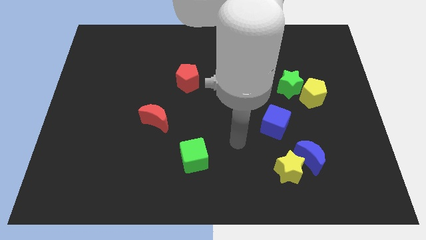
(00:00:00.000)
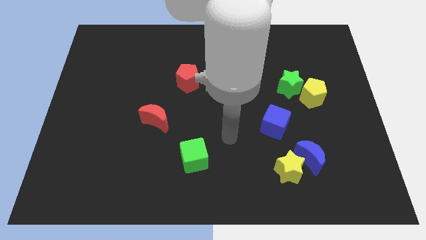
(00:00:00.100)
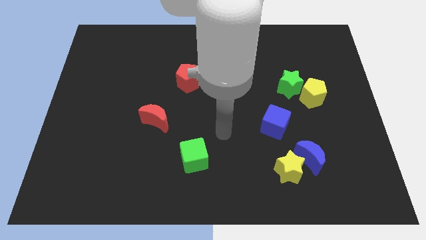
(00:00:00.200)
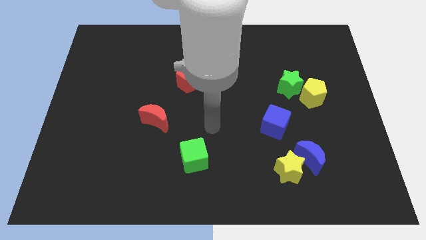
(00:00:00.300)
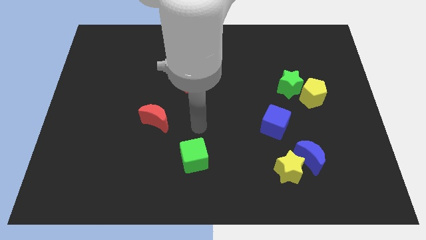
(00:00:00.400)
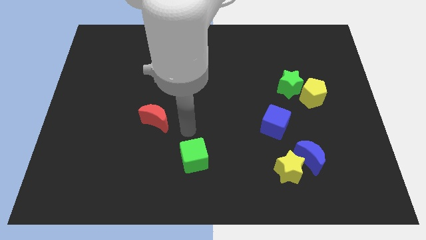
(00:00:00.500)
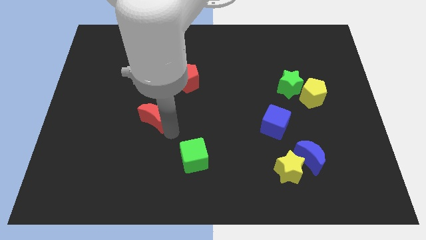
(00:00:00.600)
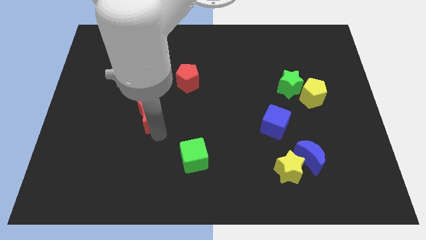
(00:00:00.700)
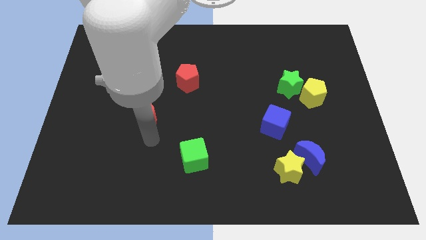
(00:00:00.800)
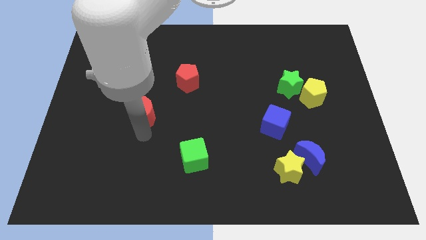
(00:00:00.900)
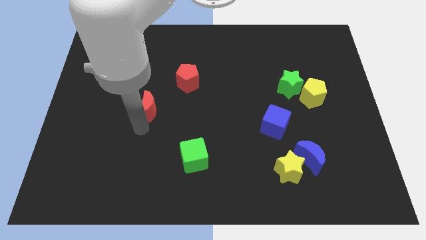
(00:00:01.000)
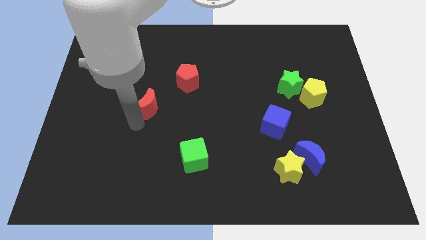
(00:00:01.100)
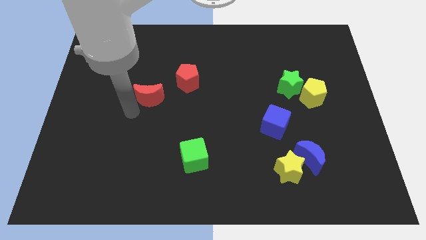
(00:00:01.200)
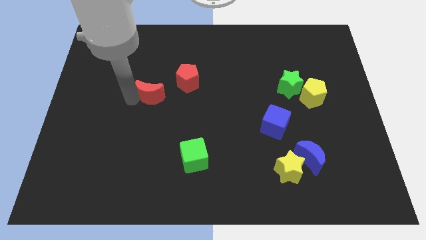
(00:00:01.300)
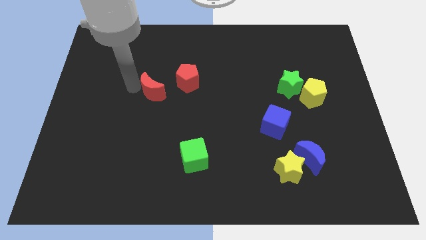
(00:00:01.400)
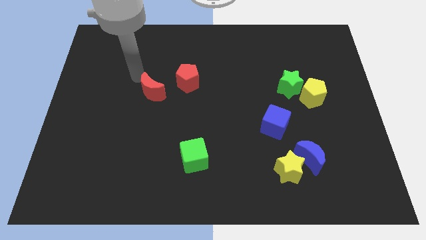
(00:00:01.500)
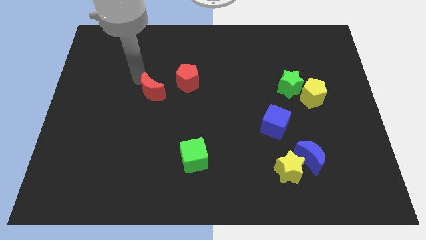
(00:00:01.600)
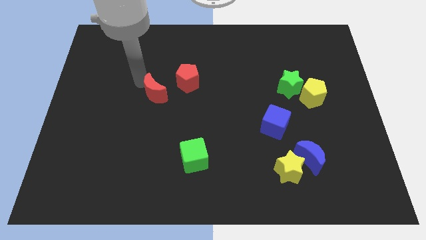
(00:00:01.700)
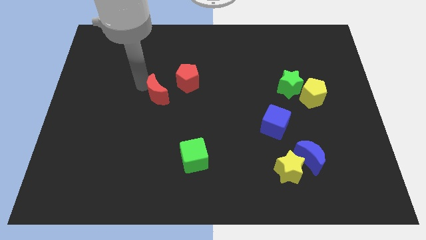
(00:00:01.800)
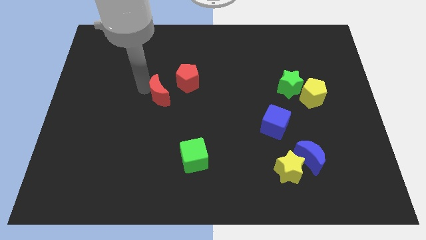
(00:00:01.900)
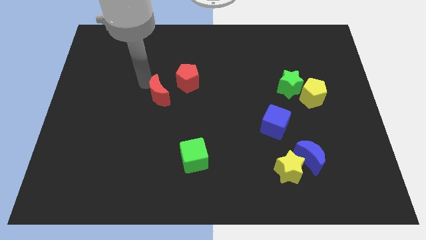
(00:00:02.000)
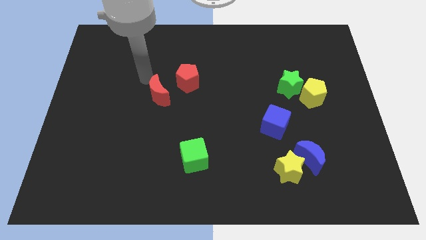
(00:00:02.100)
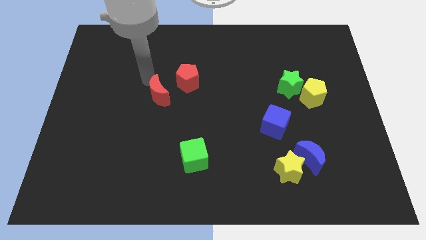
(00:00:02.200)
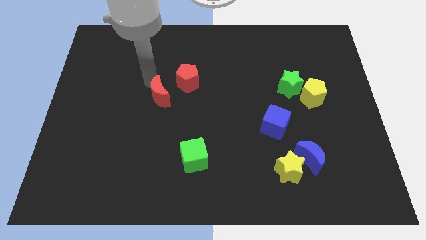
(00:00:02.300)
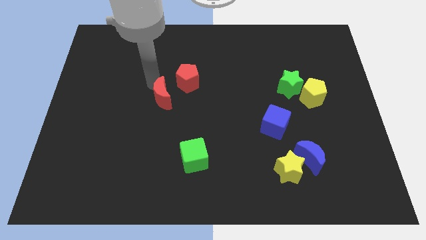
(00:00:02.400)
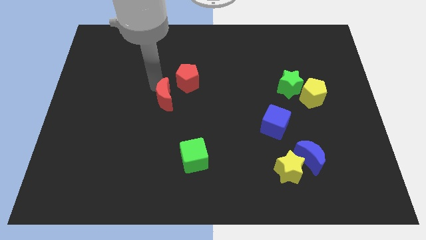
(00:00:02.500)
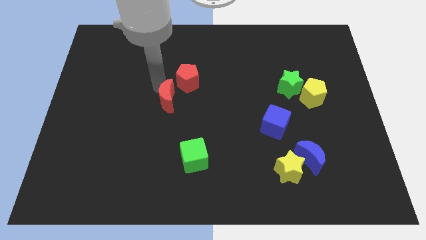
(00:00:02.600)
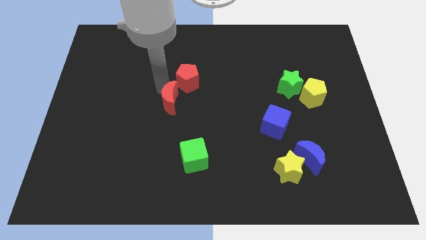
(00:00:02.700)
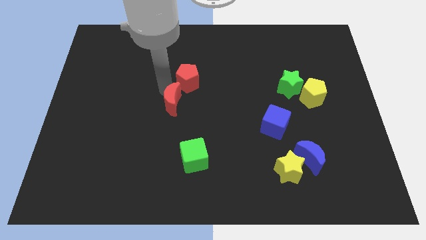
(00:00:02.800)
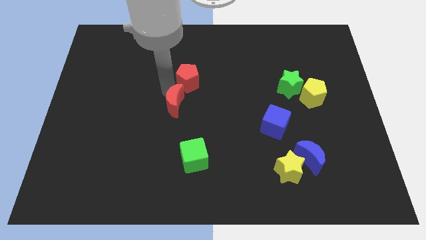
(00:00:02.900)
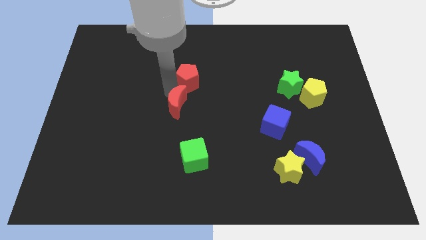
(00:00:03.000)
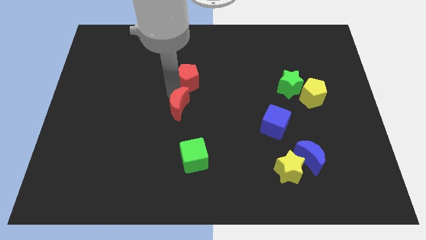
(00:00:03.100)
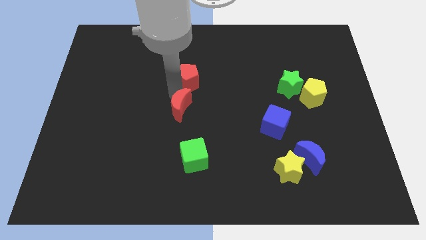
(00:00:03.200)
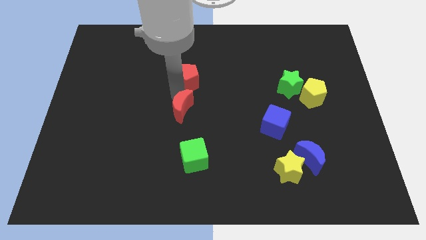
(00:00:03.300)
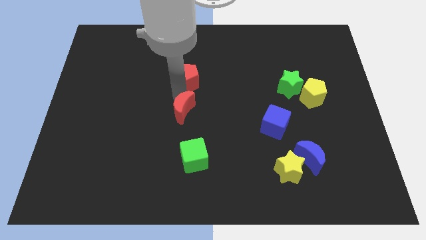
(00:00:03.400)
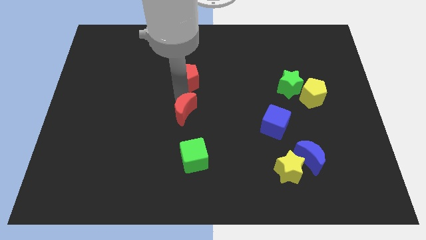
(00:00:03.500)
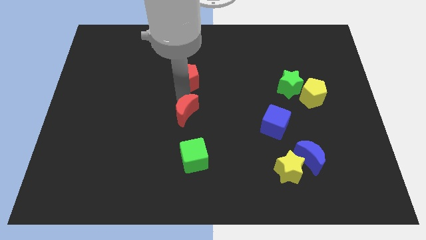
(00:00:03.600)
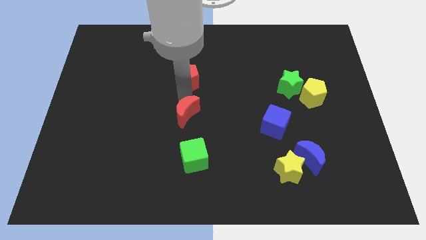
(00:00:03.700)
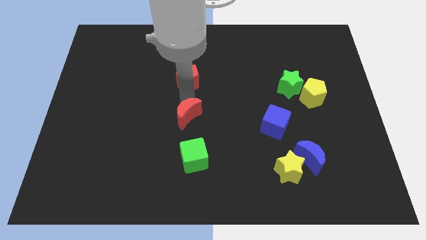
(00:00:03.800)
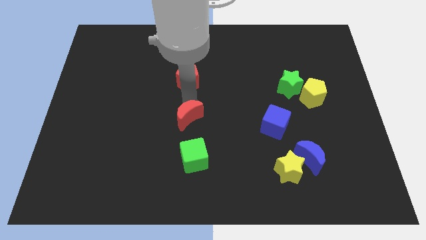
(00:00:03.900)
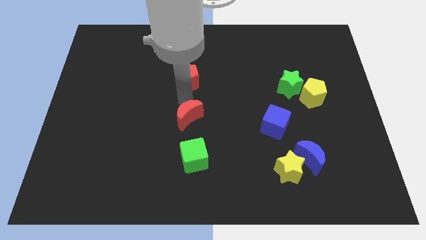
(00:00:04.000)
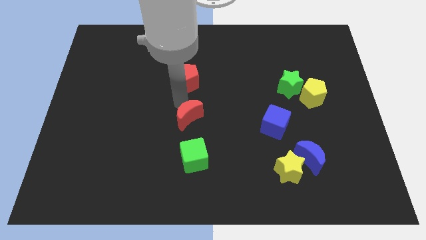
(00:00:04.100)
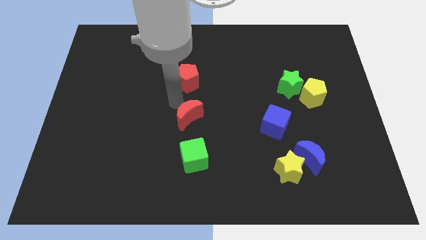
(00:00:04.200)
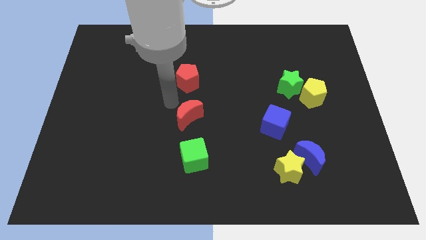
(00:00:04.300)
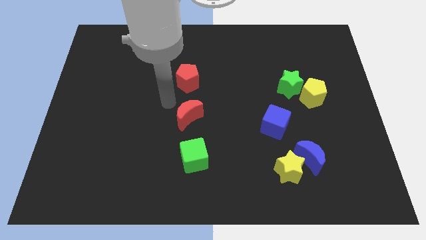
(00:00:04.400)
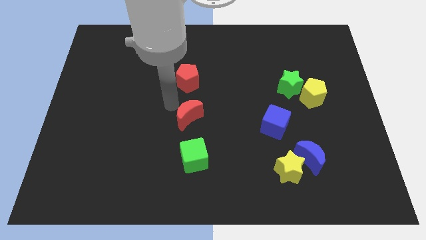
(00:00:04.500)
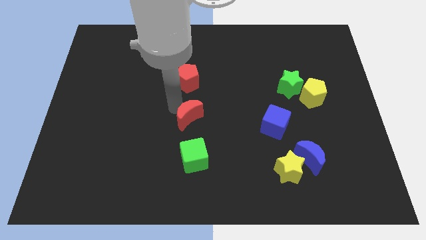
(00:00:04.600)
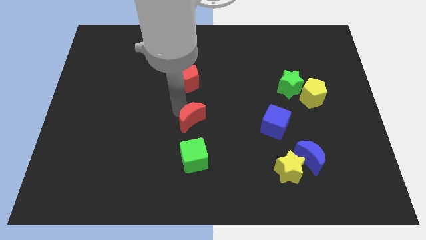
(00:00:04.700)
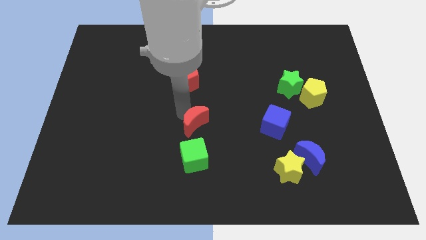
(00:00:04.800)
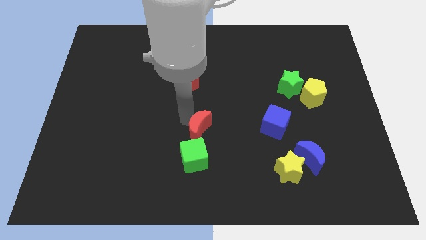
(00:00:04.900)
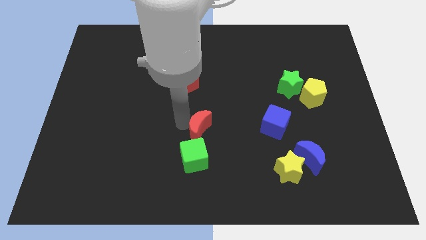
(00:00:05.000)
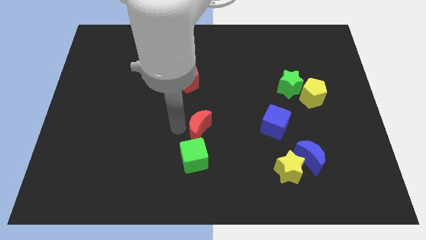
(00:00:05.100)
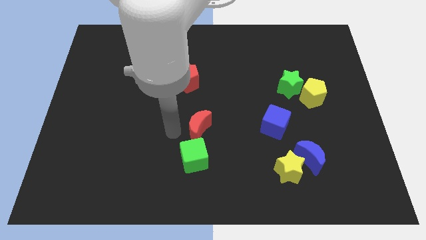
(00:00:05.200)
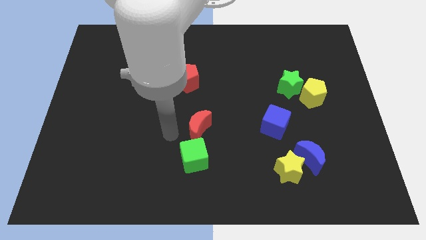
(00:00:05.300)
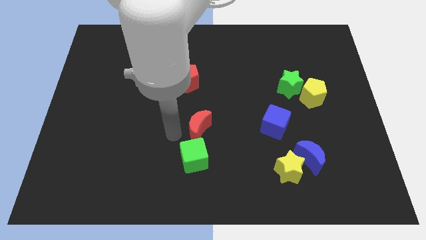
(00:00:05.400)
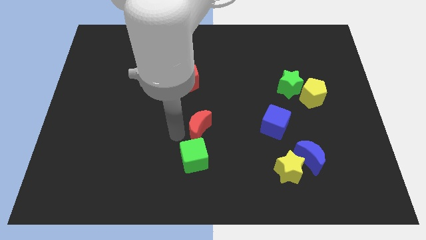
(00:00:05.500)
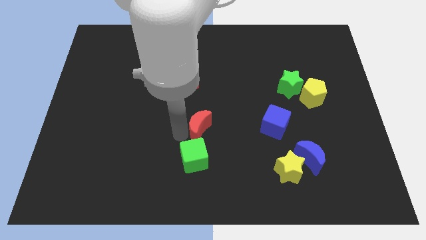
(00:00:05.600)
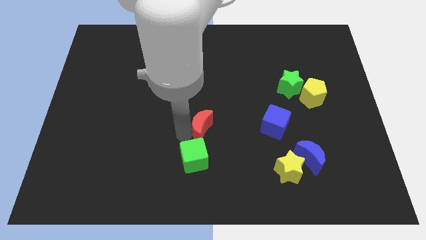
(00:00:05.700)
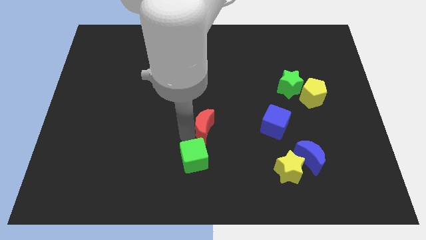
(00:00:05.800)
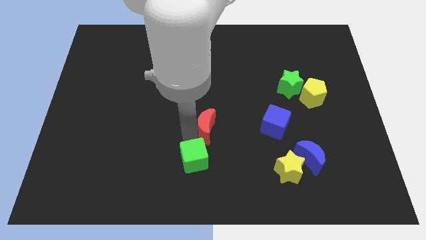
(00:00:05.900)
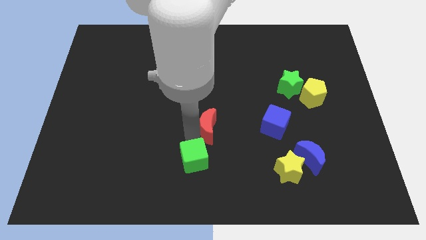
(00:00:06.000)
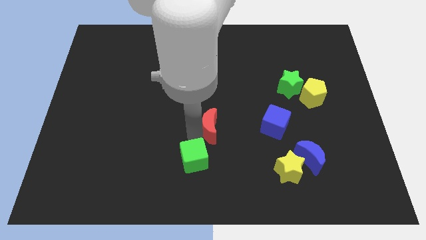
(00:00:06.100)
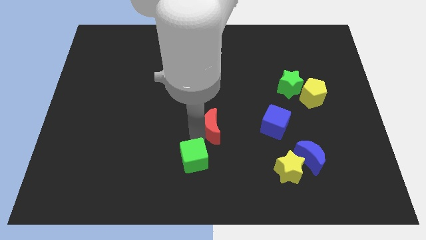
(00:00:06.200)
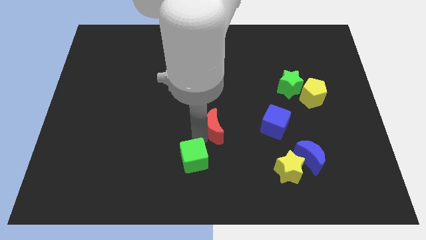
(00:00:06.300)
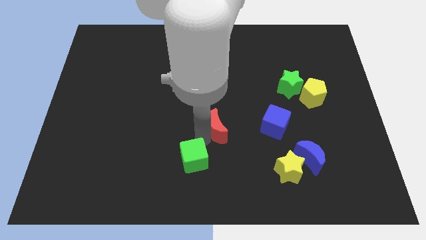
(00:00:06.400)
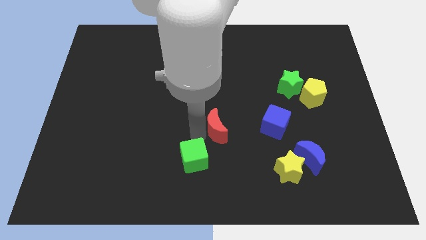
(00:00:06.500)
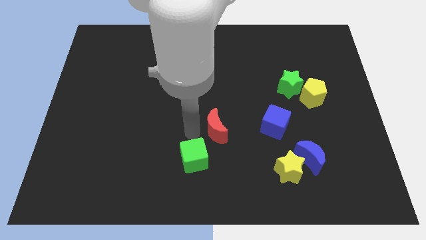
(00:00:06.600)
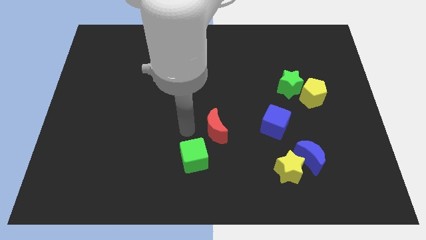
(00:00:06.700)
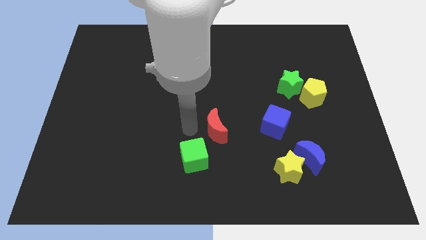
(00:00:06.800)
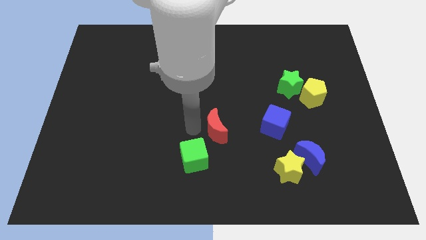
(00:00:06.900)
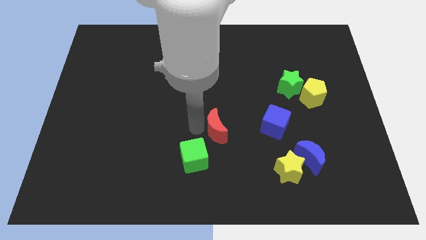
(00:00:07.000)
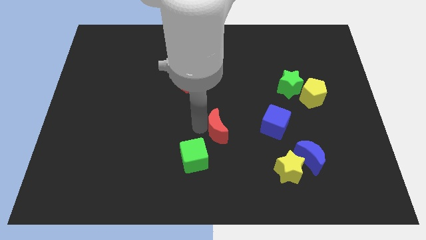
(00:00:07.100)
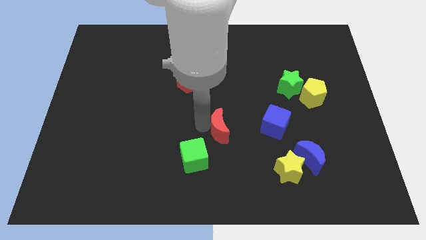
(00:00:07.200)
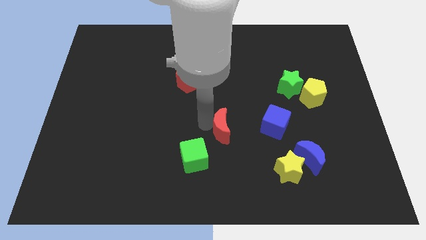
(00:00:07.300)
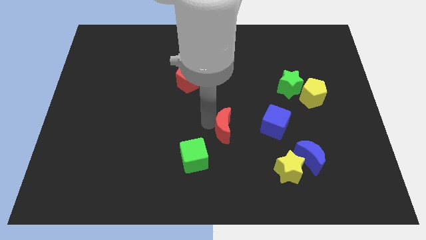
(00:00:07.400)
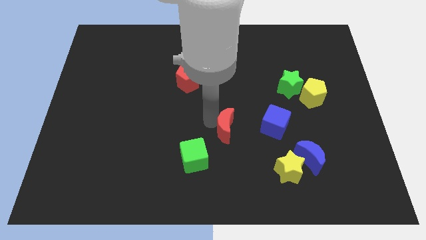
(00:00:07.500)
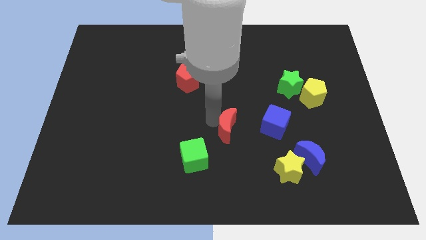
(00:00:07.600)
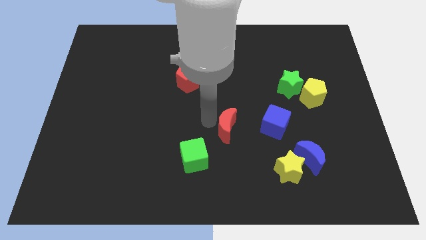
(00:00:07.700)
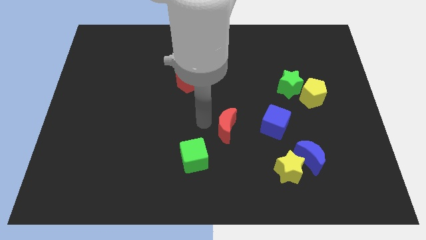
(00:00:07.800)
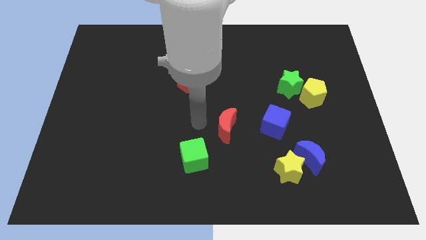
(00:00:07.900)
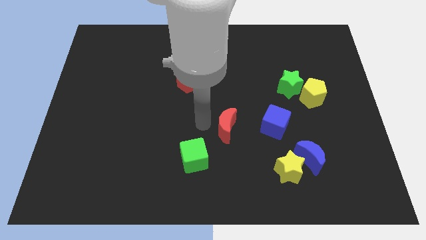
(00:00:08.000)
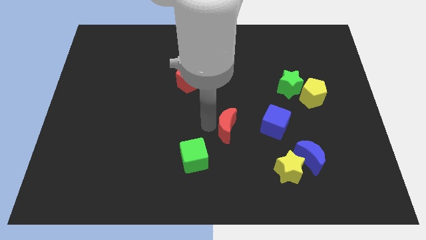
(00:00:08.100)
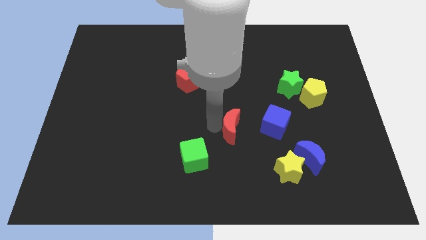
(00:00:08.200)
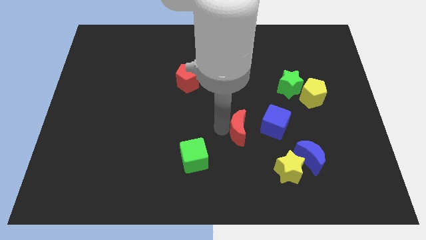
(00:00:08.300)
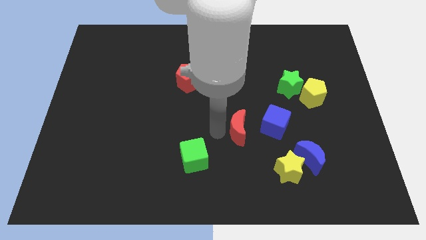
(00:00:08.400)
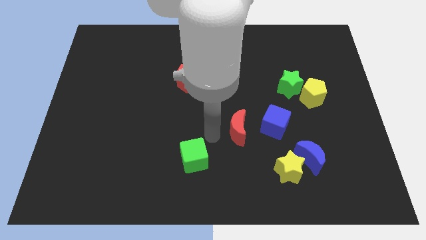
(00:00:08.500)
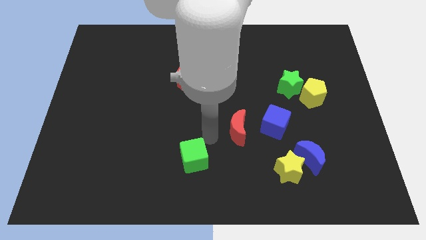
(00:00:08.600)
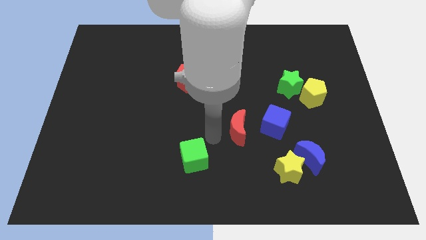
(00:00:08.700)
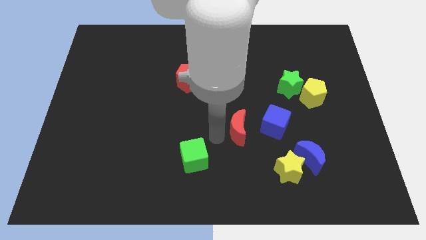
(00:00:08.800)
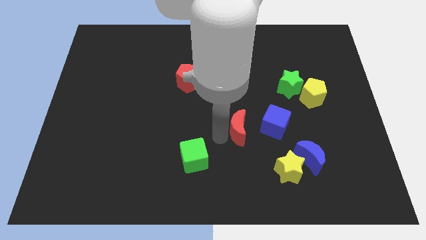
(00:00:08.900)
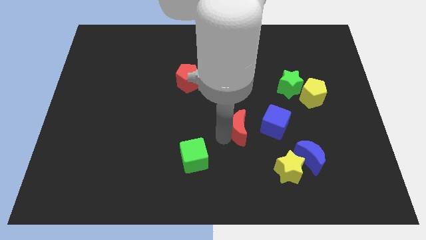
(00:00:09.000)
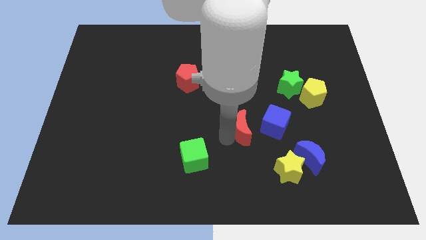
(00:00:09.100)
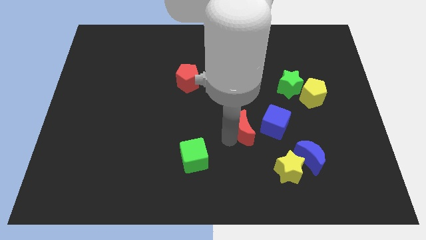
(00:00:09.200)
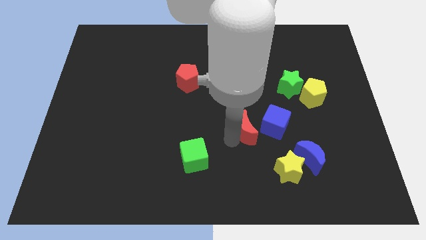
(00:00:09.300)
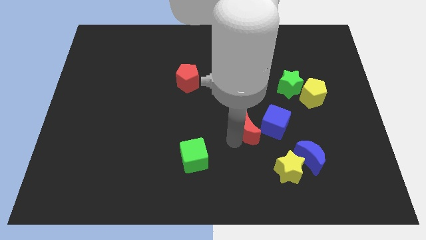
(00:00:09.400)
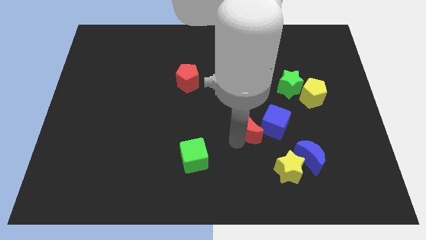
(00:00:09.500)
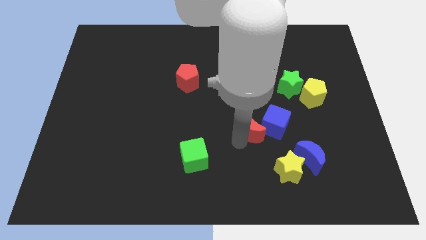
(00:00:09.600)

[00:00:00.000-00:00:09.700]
push the red moon towards the blue cube
